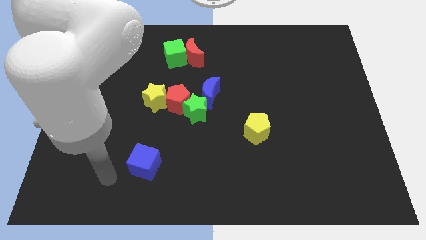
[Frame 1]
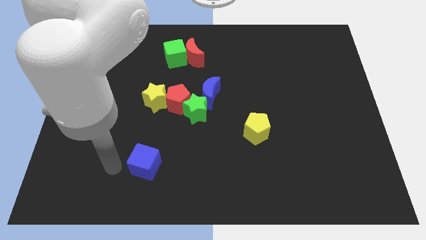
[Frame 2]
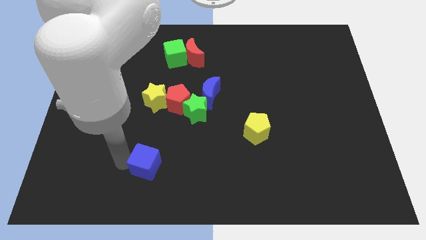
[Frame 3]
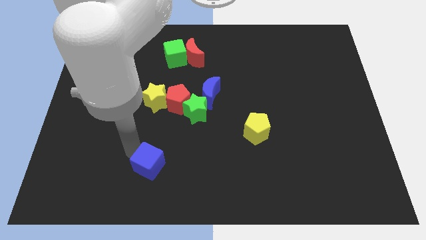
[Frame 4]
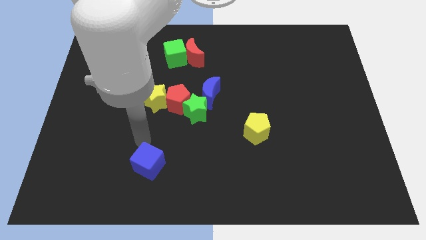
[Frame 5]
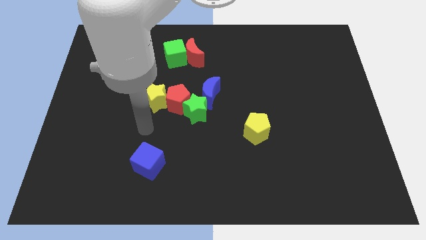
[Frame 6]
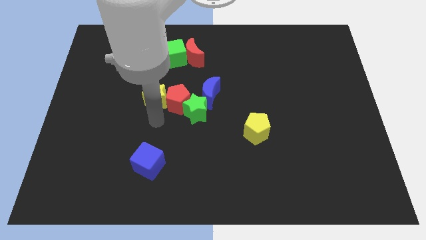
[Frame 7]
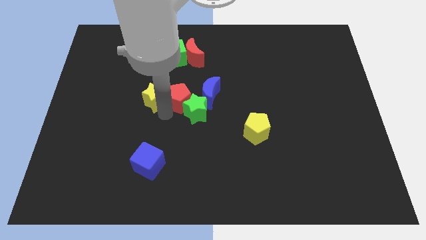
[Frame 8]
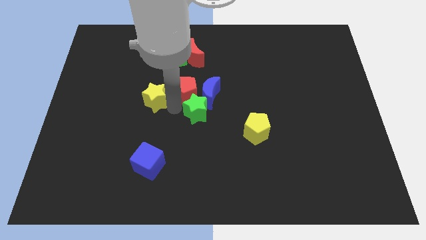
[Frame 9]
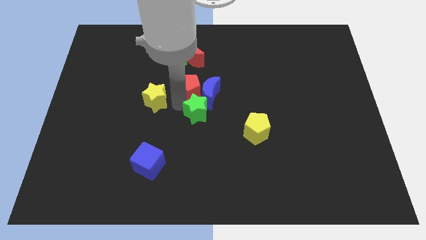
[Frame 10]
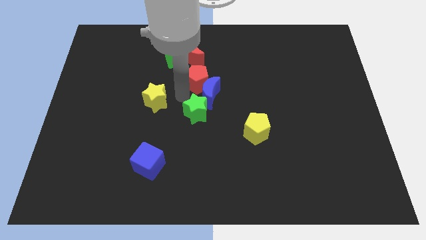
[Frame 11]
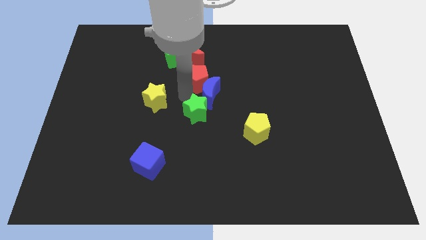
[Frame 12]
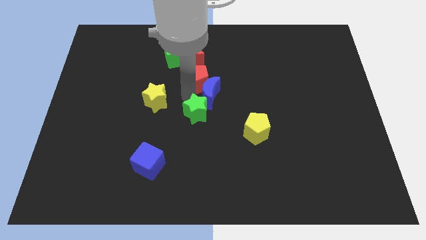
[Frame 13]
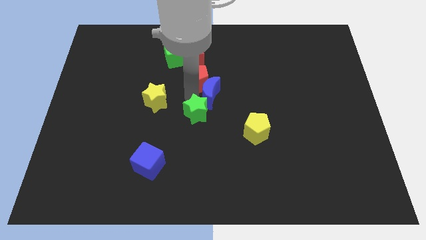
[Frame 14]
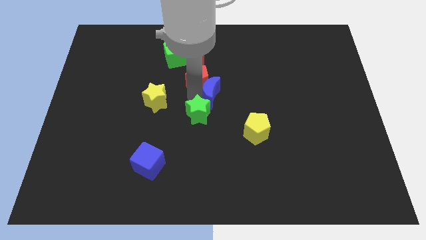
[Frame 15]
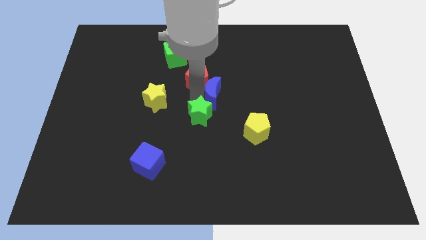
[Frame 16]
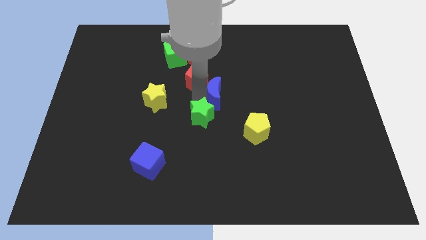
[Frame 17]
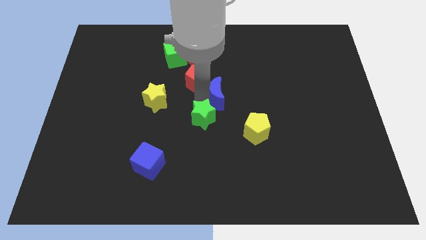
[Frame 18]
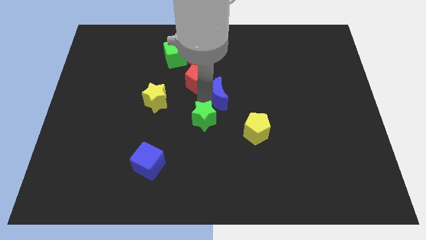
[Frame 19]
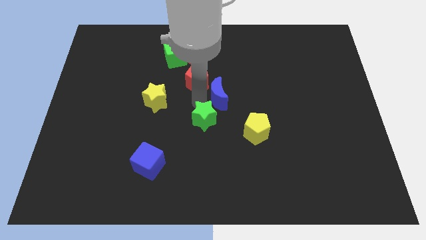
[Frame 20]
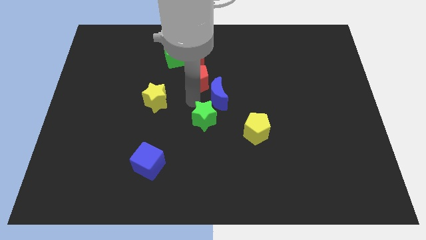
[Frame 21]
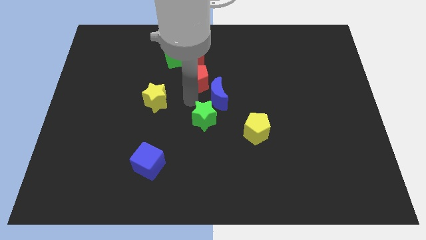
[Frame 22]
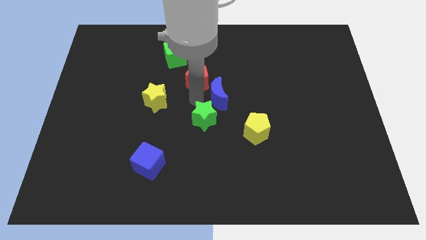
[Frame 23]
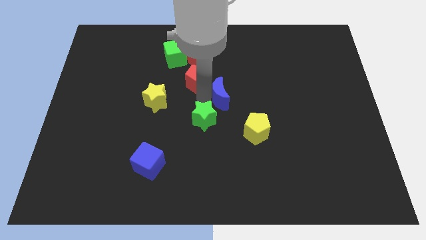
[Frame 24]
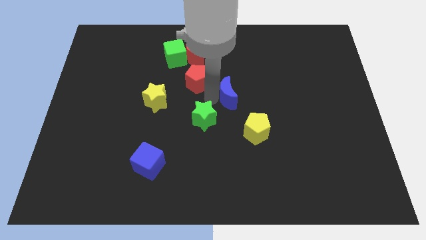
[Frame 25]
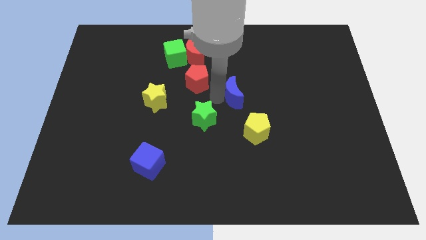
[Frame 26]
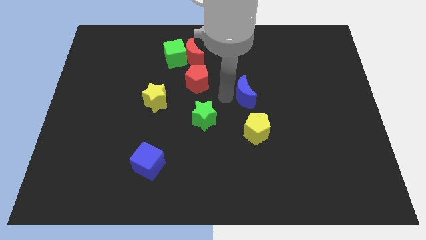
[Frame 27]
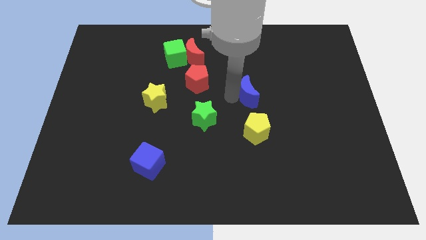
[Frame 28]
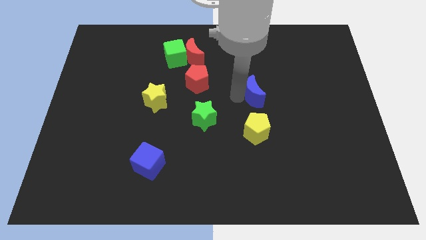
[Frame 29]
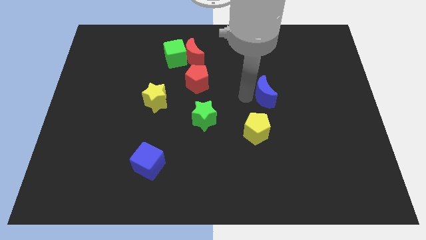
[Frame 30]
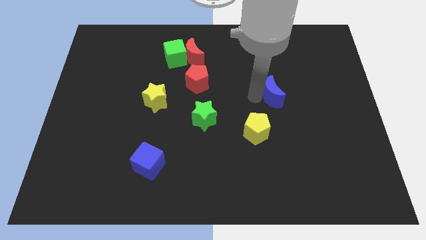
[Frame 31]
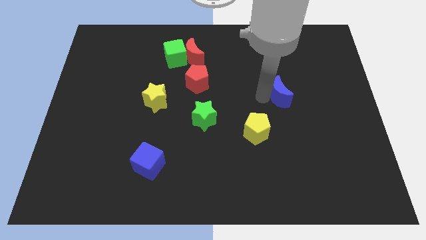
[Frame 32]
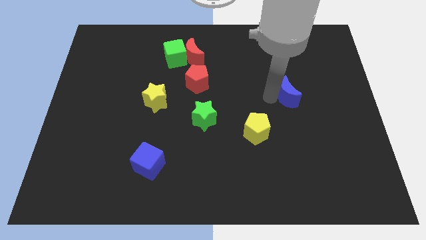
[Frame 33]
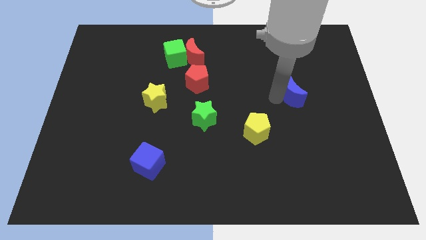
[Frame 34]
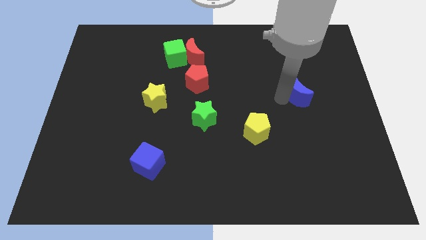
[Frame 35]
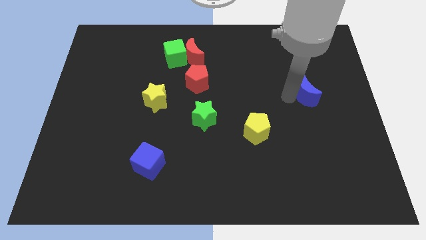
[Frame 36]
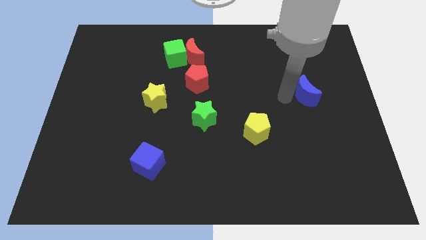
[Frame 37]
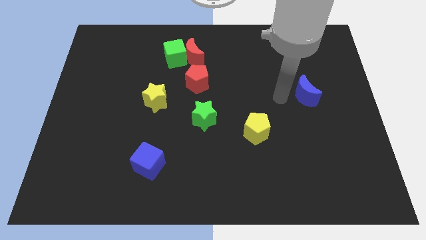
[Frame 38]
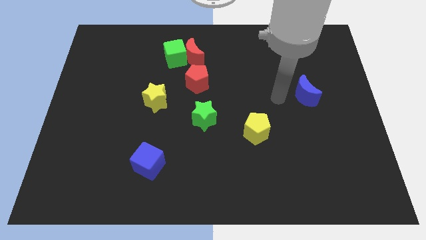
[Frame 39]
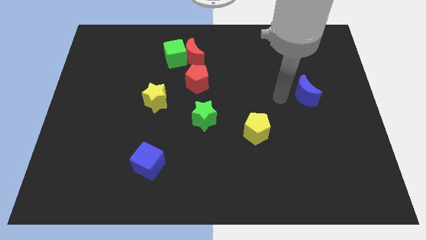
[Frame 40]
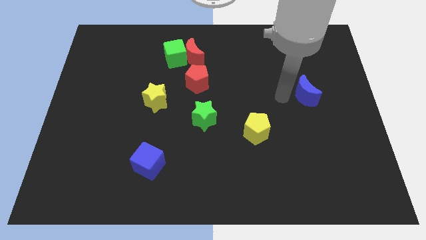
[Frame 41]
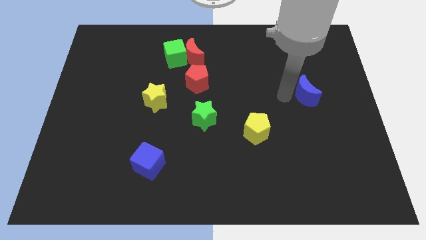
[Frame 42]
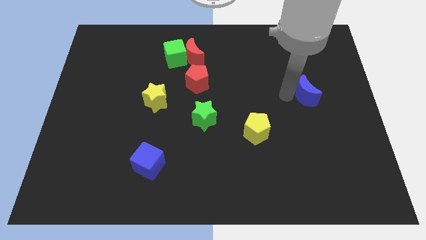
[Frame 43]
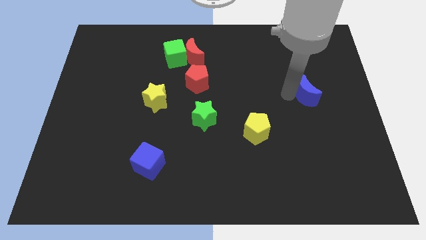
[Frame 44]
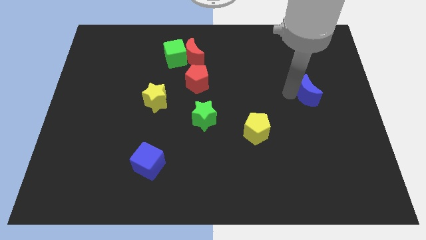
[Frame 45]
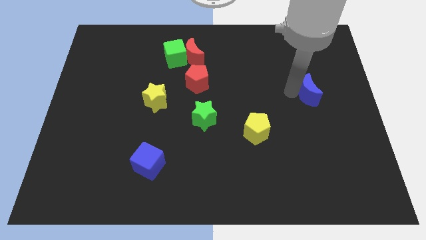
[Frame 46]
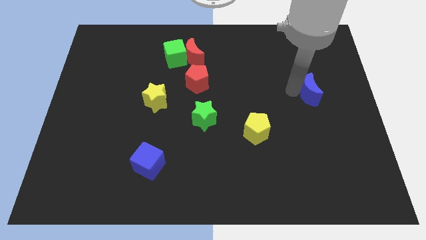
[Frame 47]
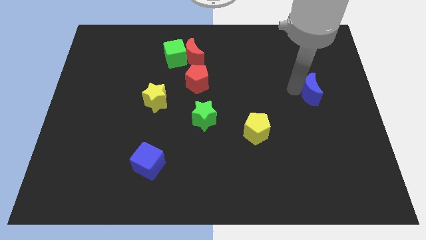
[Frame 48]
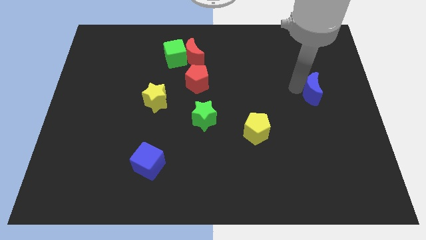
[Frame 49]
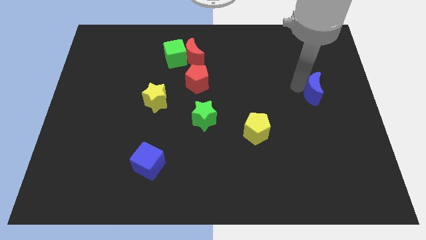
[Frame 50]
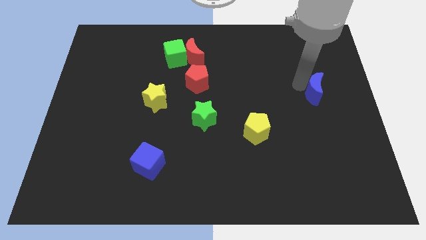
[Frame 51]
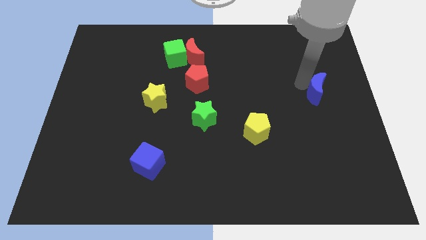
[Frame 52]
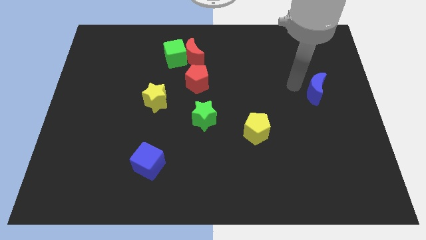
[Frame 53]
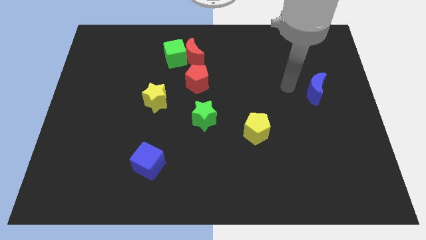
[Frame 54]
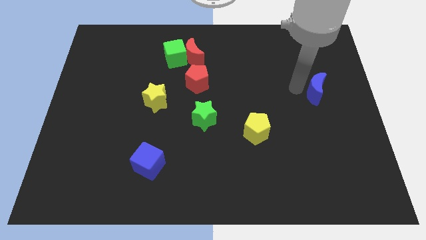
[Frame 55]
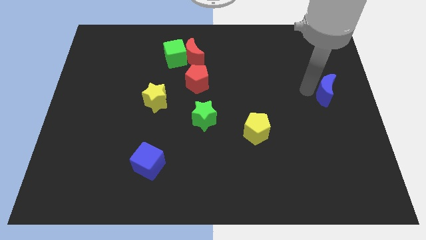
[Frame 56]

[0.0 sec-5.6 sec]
put the blue moon to the right side of the board
